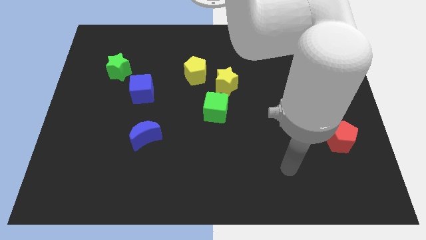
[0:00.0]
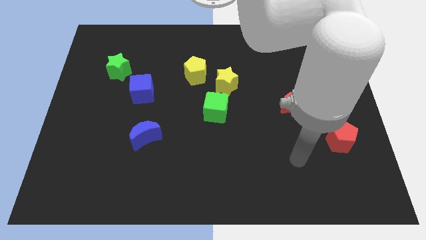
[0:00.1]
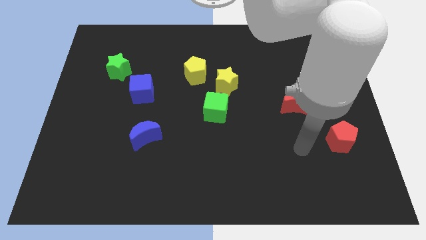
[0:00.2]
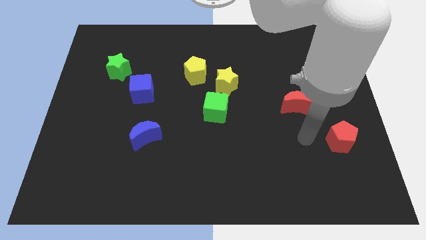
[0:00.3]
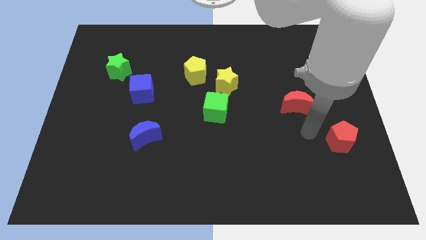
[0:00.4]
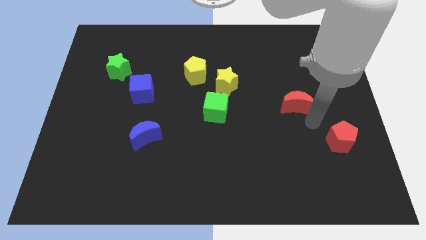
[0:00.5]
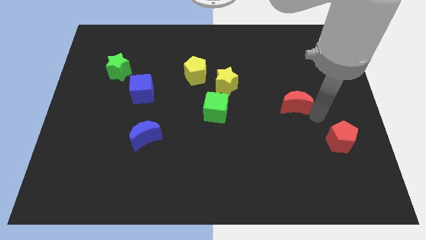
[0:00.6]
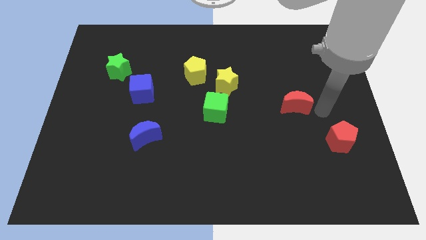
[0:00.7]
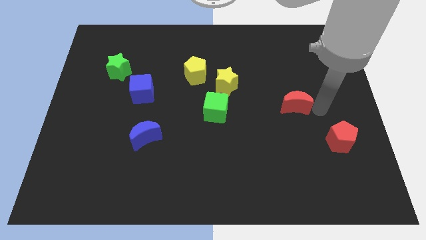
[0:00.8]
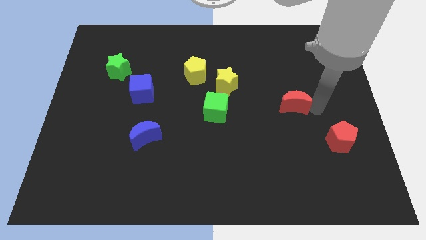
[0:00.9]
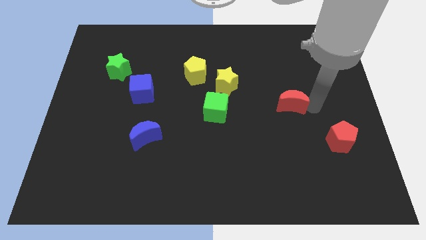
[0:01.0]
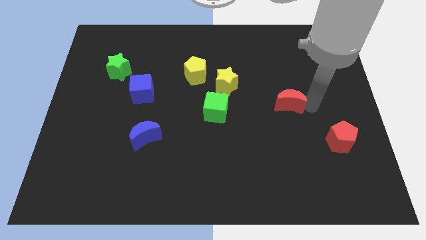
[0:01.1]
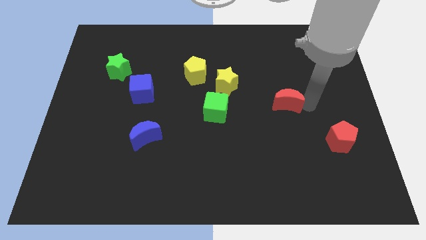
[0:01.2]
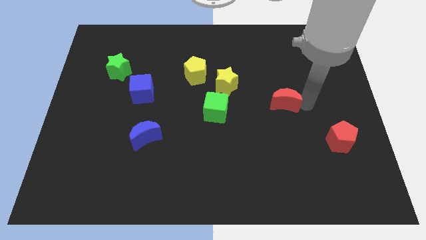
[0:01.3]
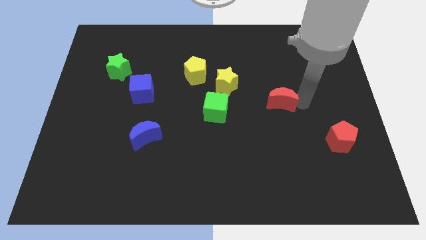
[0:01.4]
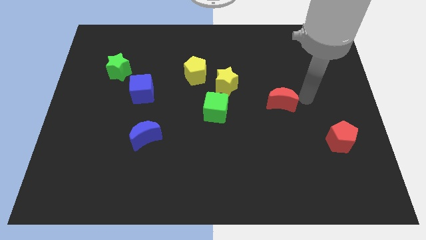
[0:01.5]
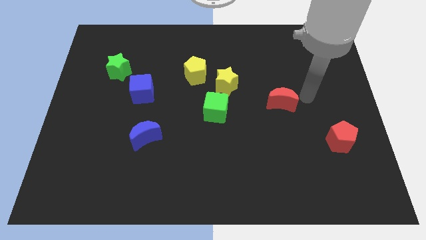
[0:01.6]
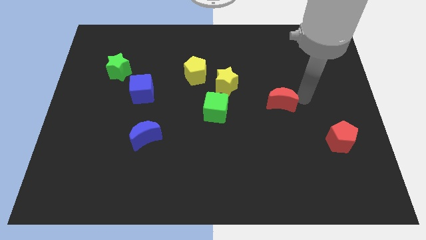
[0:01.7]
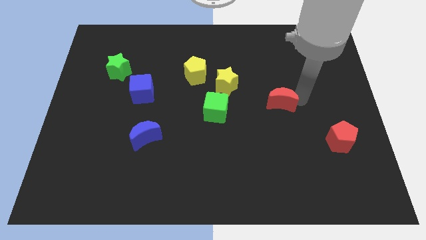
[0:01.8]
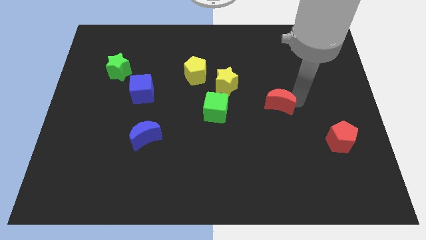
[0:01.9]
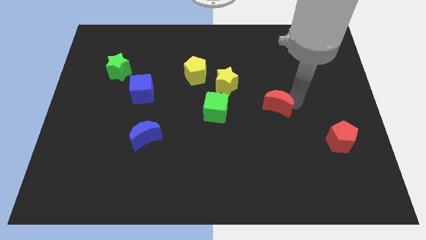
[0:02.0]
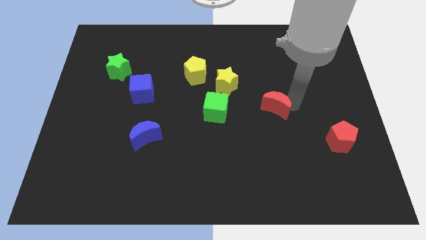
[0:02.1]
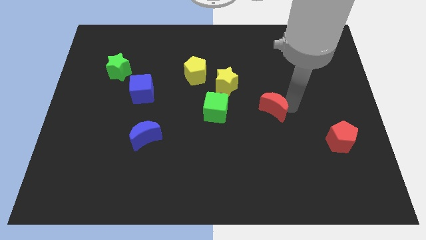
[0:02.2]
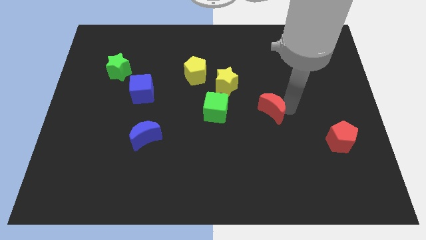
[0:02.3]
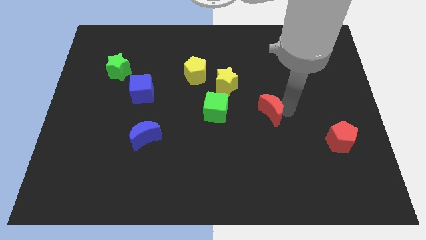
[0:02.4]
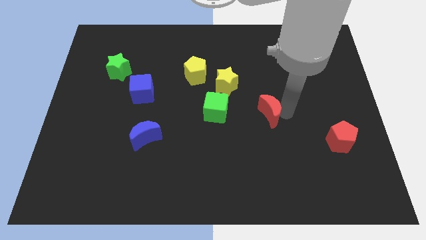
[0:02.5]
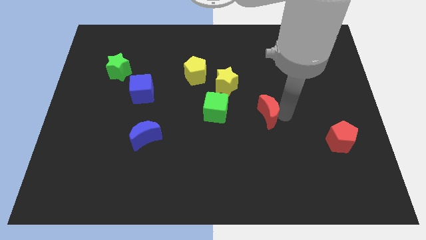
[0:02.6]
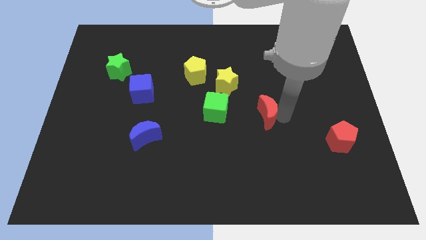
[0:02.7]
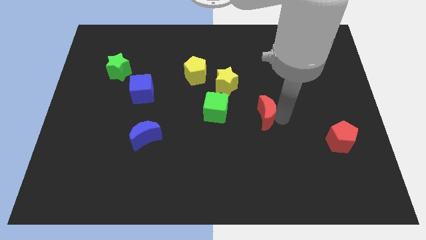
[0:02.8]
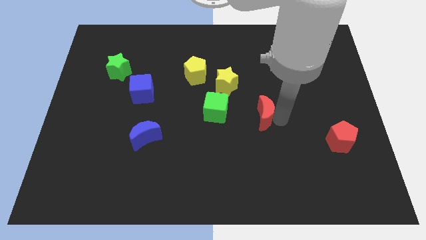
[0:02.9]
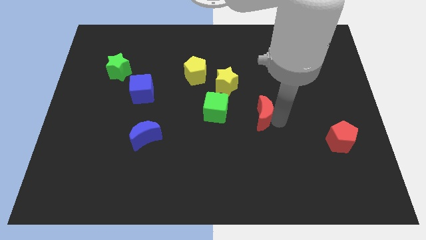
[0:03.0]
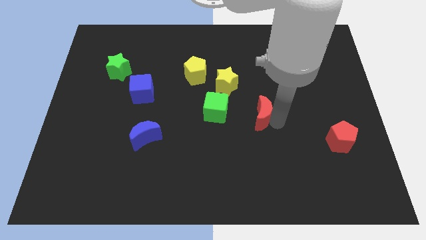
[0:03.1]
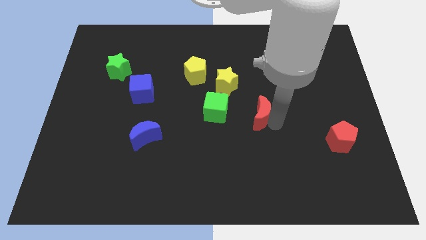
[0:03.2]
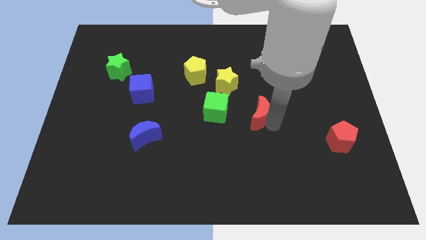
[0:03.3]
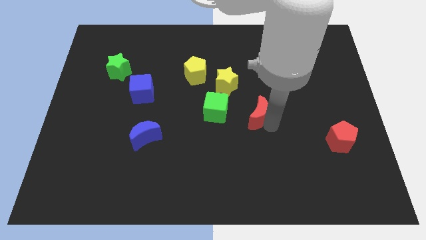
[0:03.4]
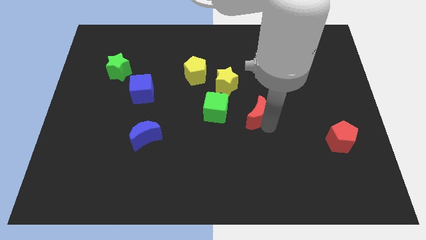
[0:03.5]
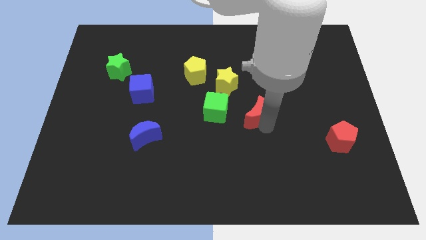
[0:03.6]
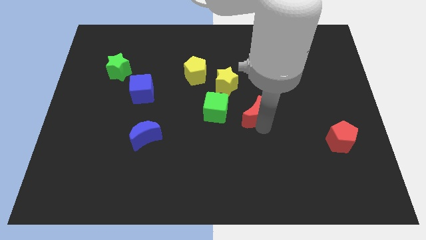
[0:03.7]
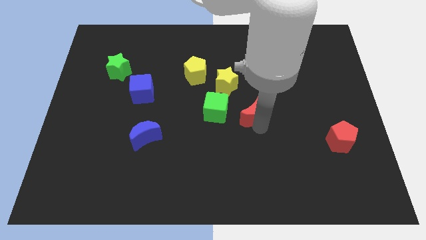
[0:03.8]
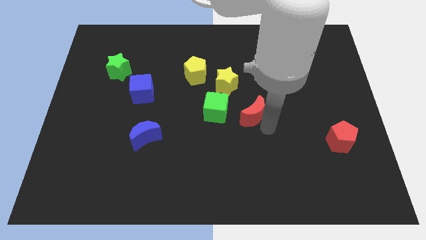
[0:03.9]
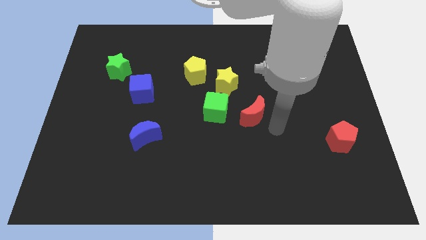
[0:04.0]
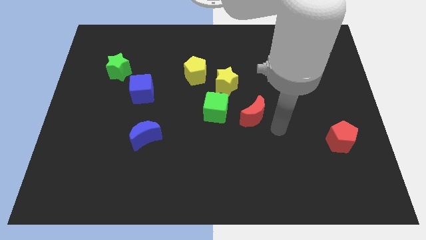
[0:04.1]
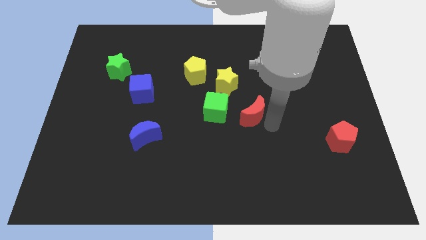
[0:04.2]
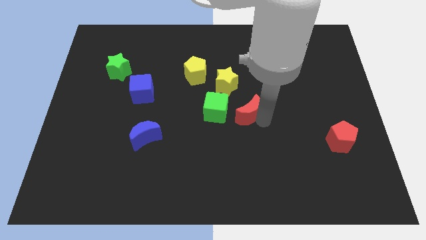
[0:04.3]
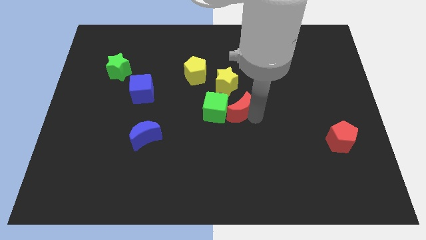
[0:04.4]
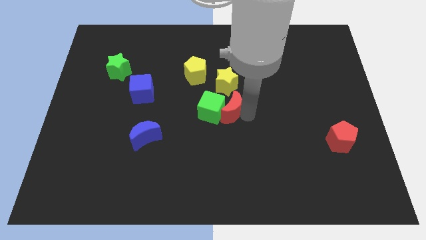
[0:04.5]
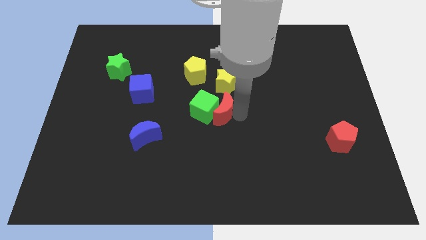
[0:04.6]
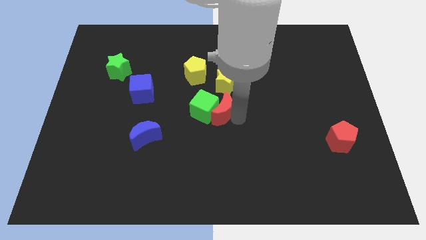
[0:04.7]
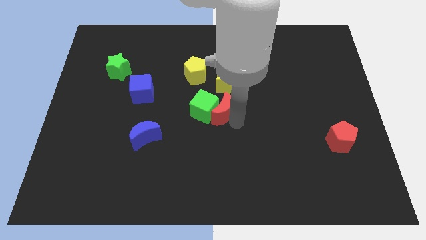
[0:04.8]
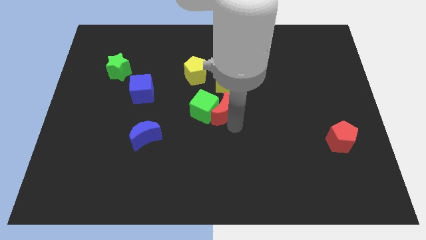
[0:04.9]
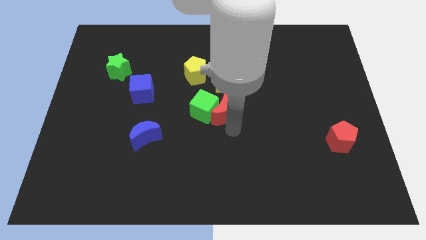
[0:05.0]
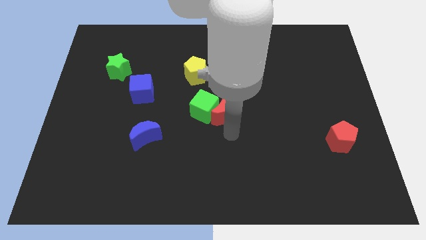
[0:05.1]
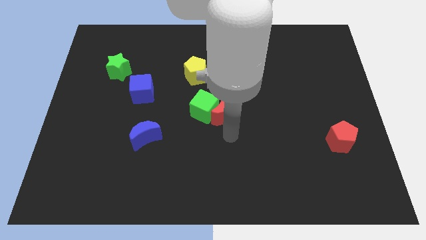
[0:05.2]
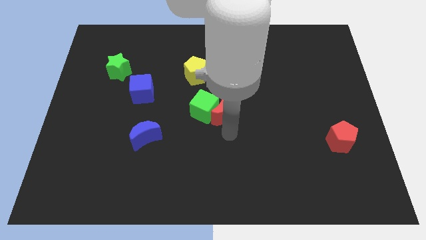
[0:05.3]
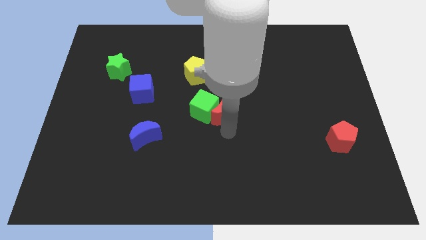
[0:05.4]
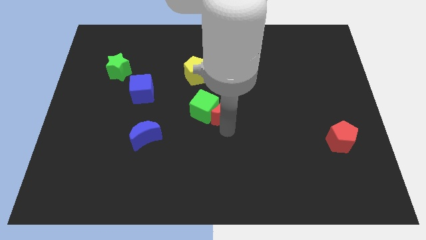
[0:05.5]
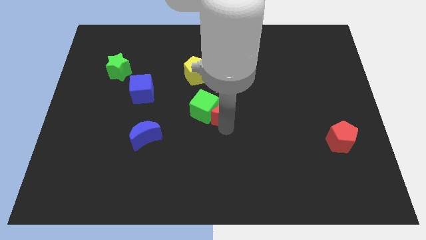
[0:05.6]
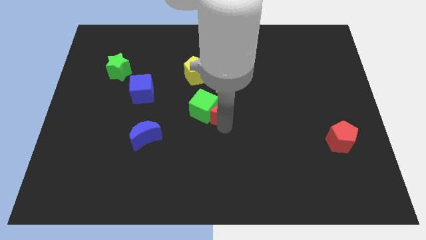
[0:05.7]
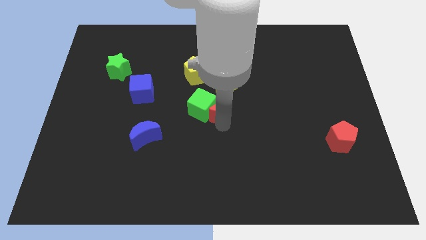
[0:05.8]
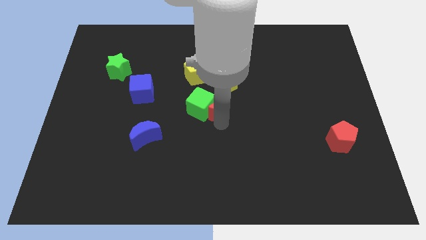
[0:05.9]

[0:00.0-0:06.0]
slide the red moon diagonally down and to the left of the yellow star
